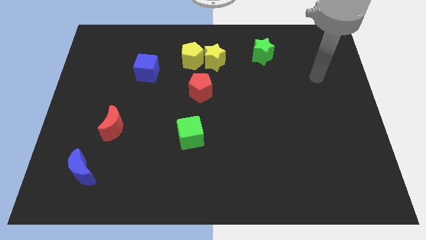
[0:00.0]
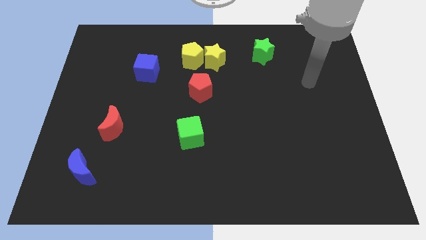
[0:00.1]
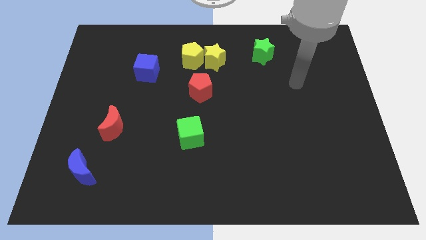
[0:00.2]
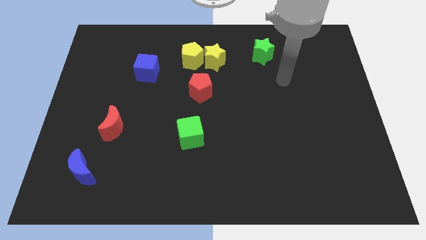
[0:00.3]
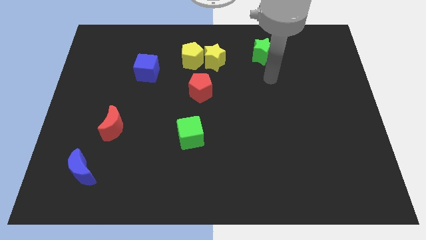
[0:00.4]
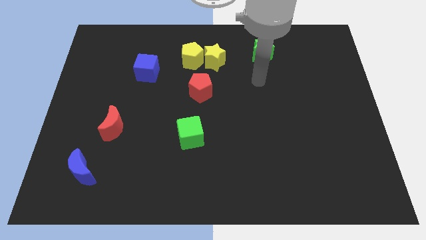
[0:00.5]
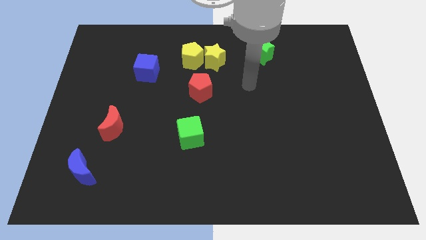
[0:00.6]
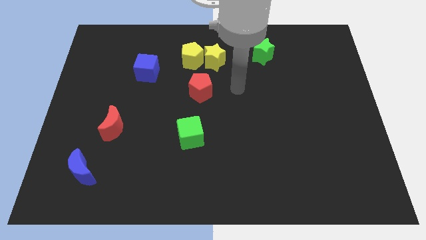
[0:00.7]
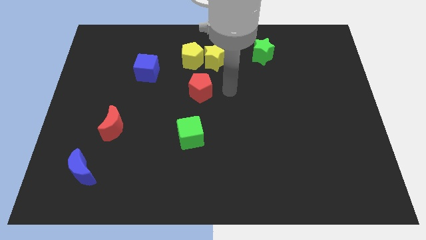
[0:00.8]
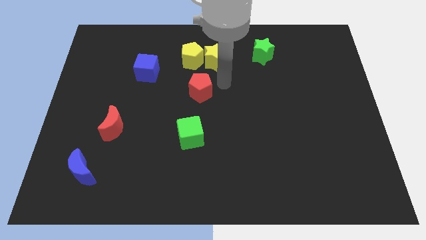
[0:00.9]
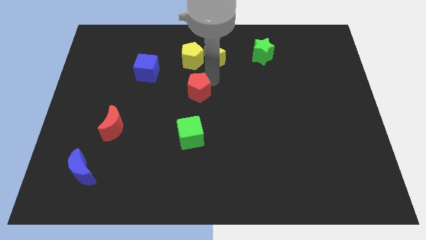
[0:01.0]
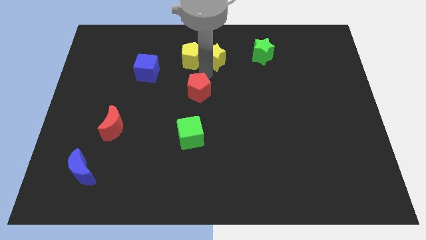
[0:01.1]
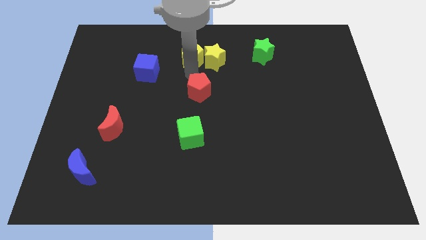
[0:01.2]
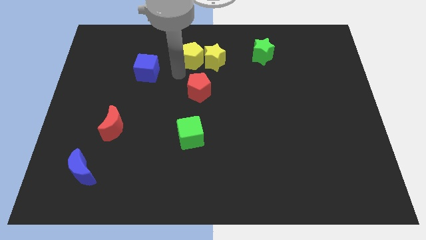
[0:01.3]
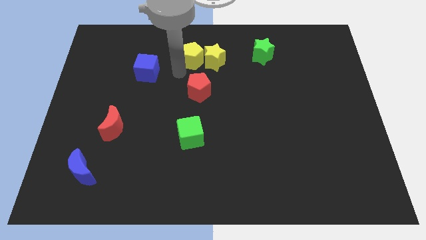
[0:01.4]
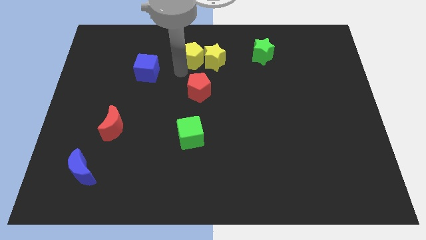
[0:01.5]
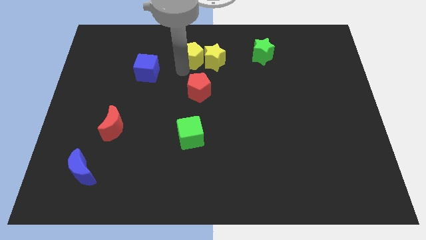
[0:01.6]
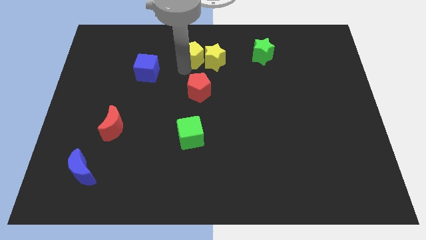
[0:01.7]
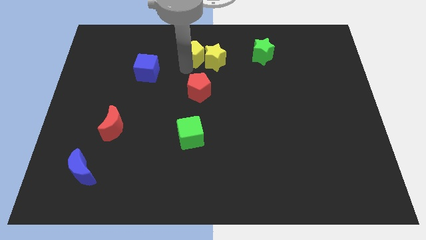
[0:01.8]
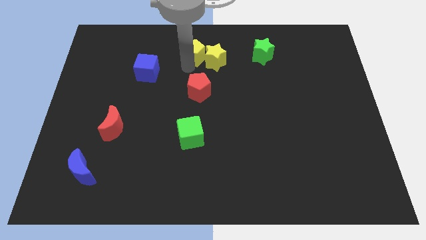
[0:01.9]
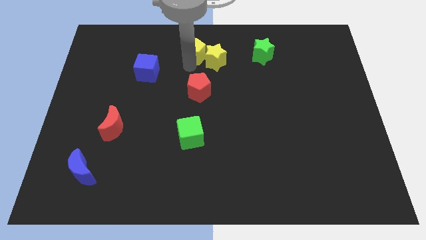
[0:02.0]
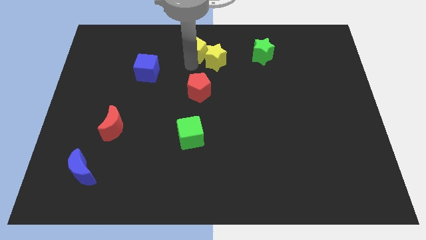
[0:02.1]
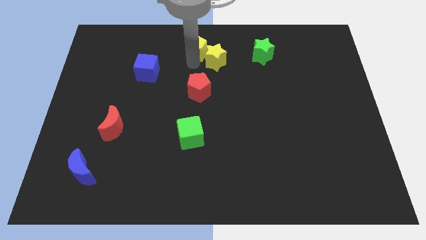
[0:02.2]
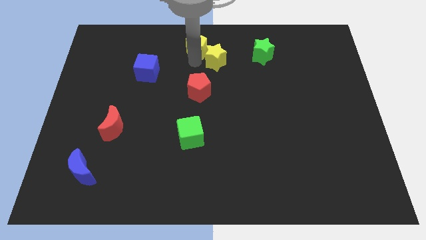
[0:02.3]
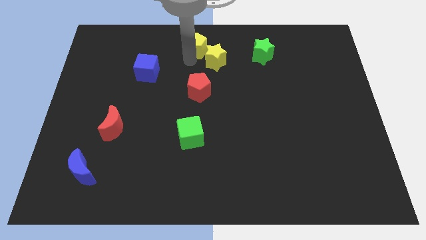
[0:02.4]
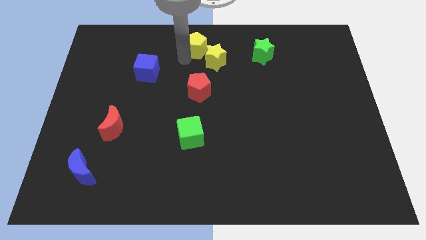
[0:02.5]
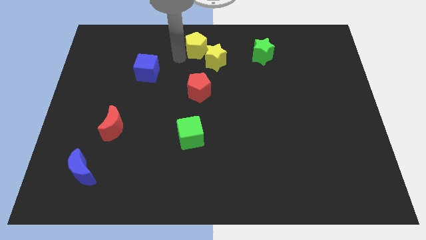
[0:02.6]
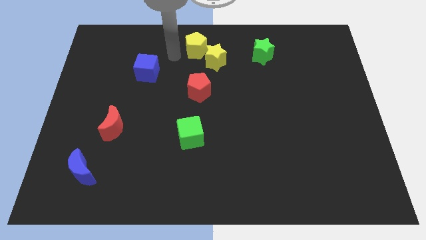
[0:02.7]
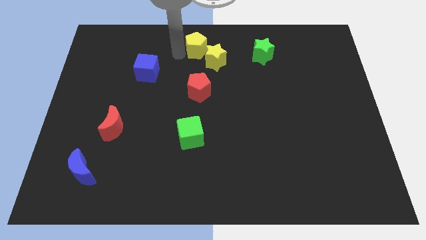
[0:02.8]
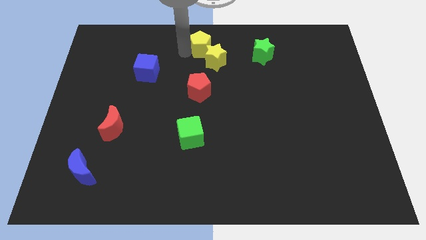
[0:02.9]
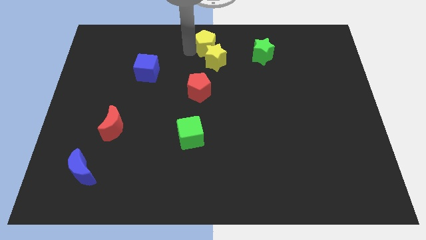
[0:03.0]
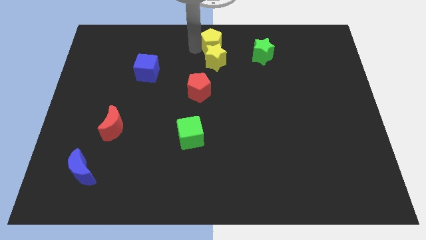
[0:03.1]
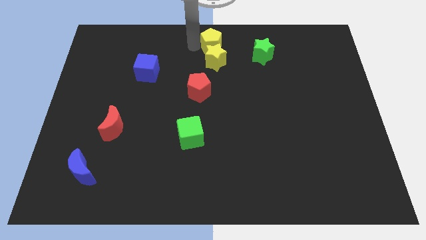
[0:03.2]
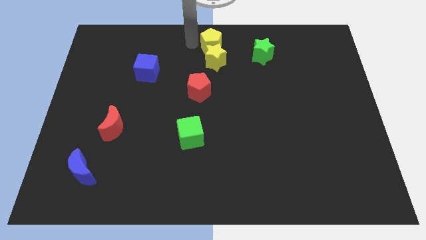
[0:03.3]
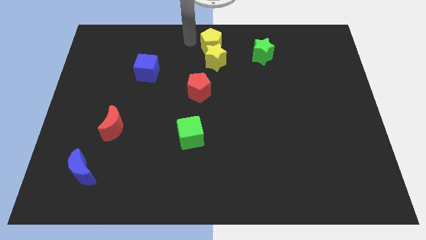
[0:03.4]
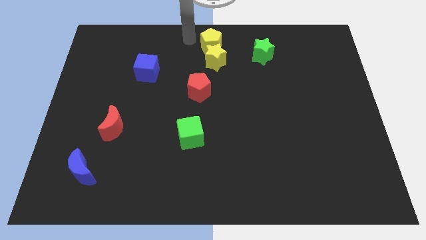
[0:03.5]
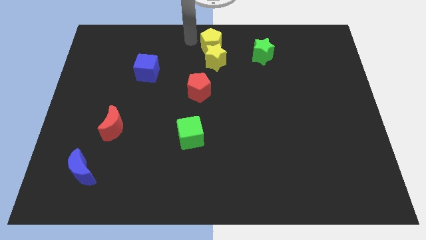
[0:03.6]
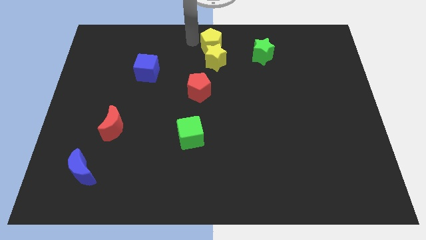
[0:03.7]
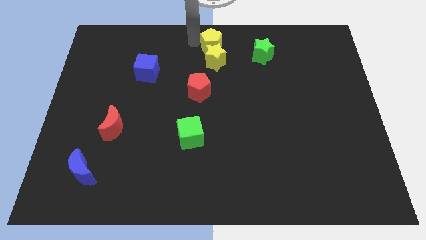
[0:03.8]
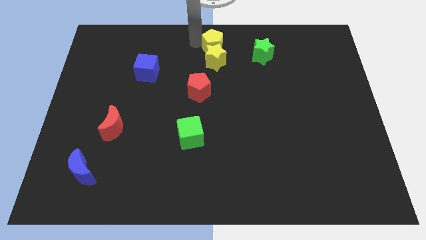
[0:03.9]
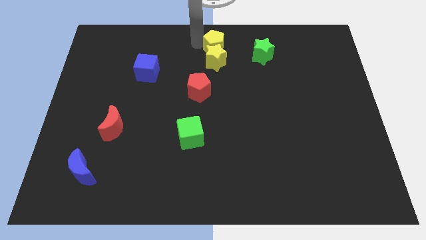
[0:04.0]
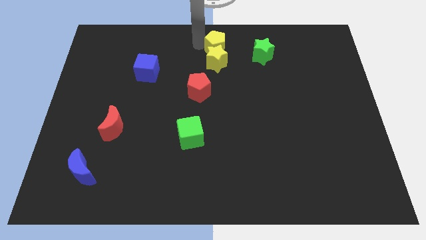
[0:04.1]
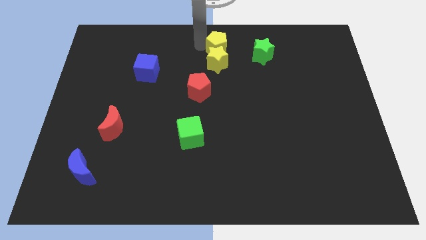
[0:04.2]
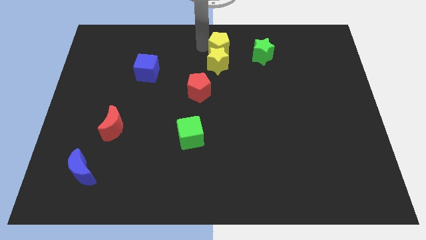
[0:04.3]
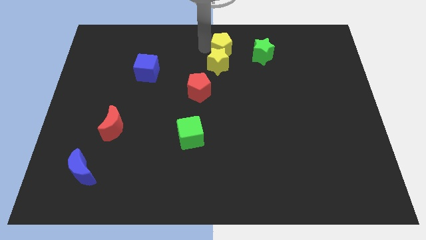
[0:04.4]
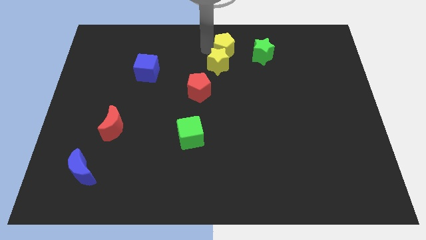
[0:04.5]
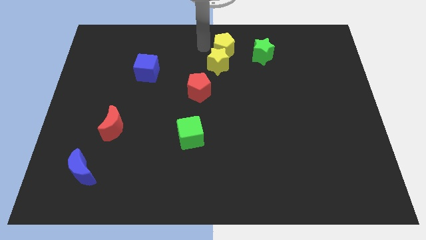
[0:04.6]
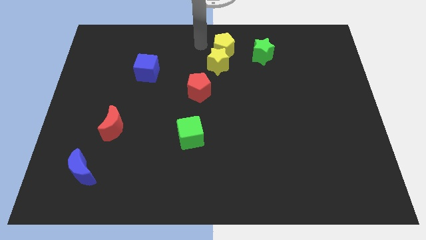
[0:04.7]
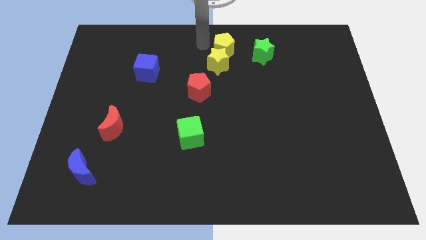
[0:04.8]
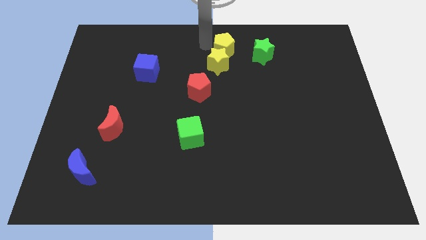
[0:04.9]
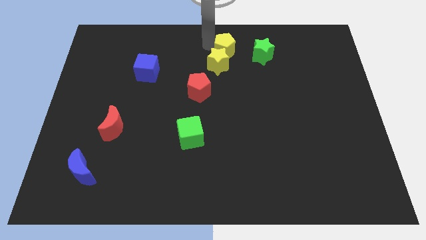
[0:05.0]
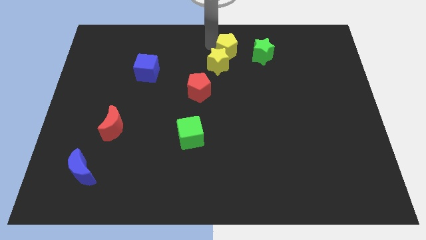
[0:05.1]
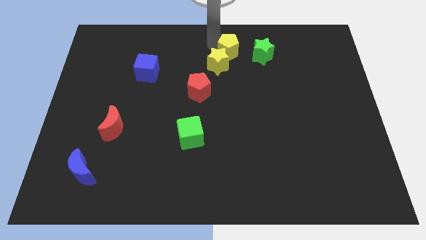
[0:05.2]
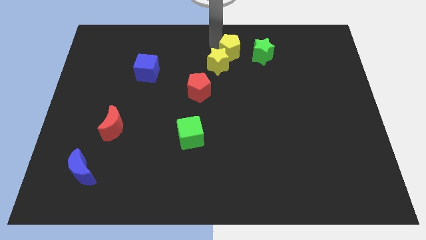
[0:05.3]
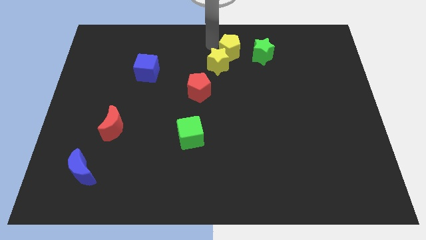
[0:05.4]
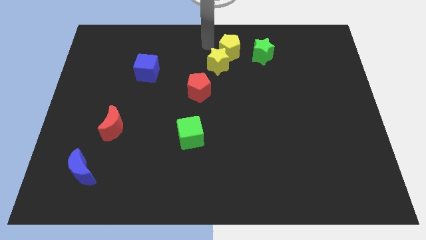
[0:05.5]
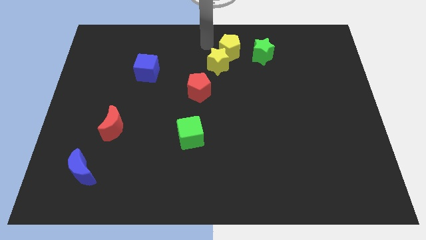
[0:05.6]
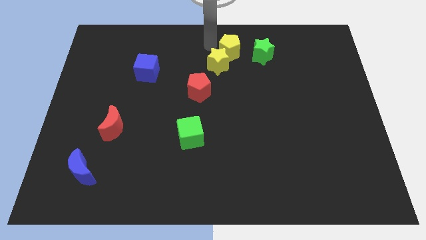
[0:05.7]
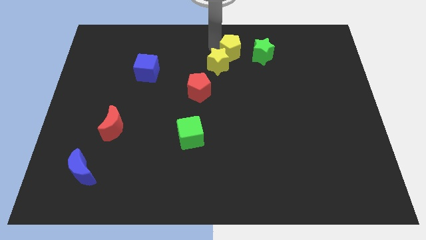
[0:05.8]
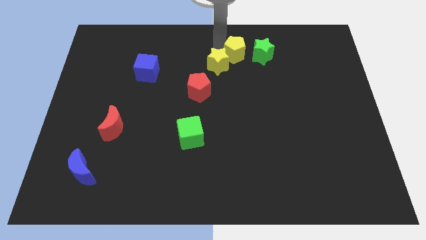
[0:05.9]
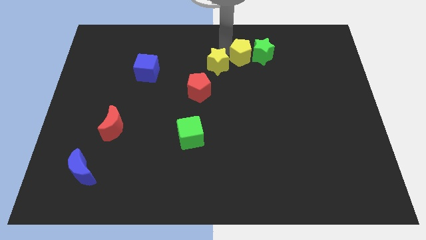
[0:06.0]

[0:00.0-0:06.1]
move the yellow pentagon to the green star
